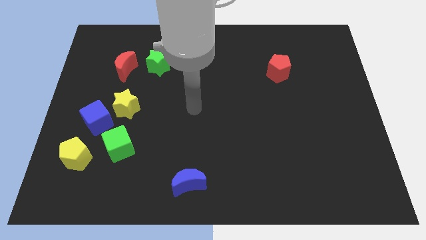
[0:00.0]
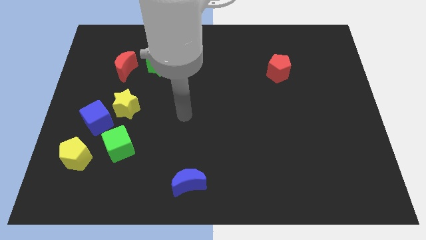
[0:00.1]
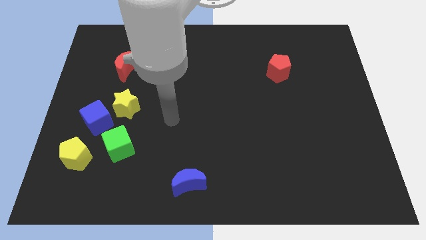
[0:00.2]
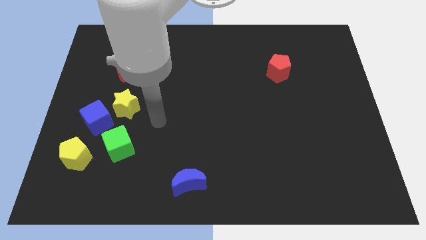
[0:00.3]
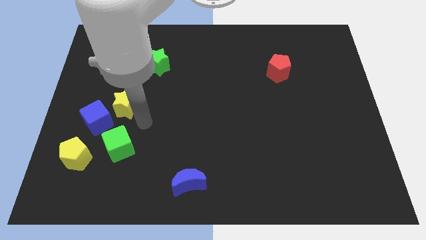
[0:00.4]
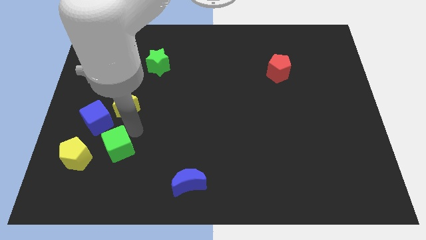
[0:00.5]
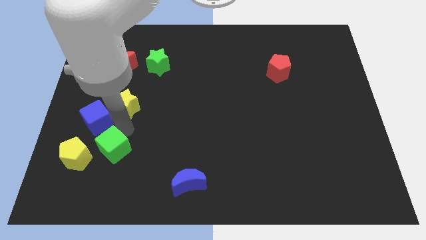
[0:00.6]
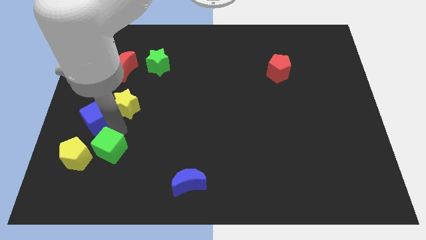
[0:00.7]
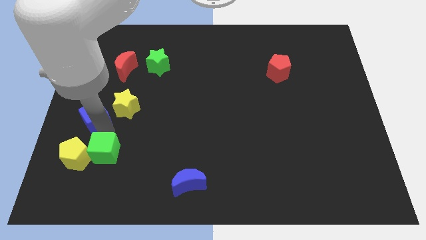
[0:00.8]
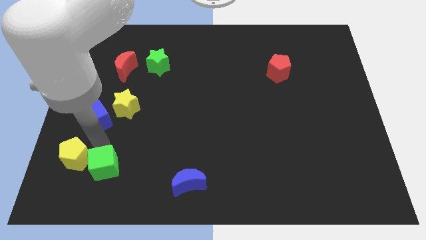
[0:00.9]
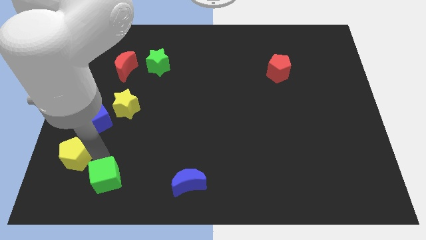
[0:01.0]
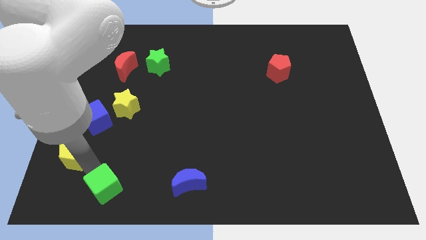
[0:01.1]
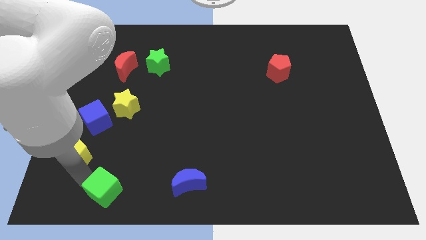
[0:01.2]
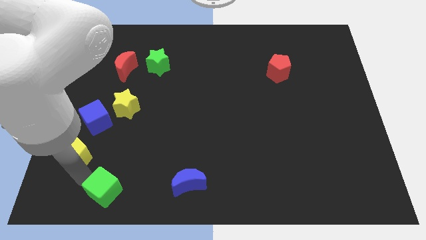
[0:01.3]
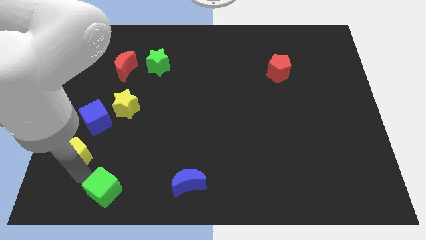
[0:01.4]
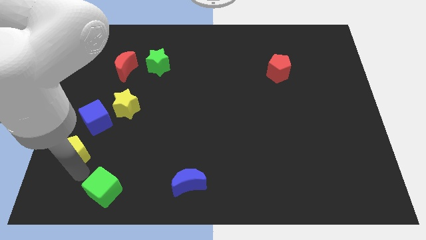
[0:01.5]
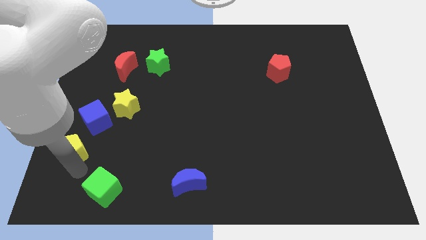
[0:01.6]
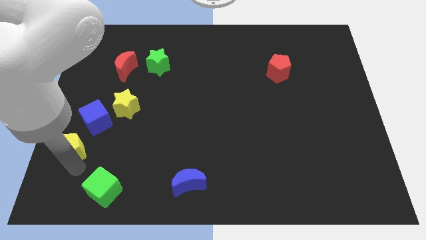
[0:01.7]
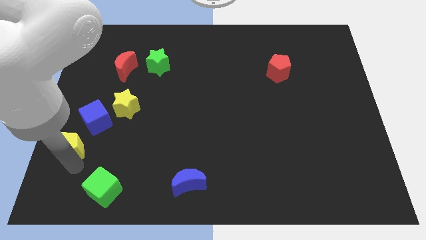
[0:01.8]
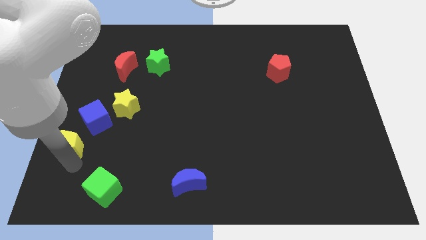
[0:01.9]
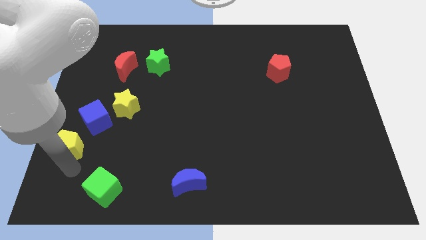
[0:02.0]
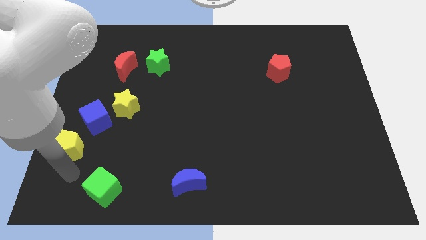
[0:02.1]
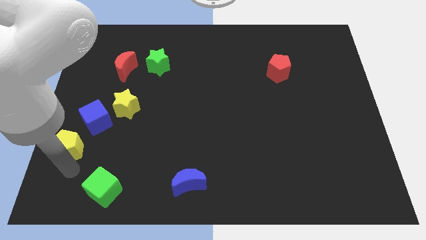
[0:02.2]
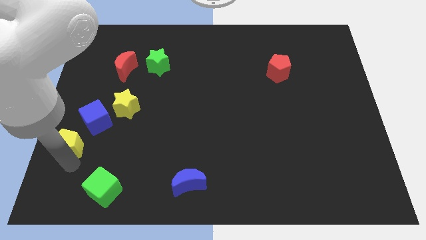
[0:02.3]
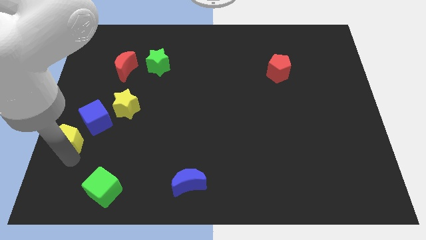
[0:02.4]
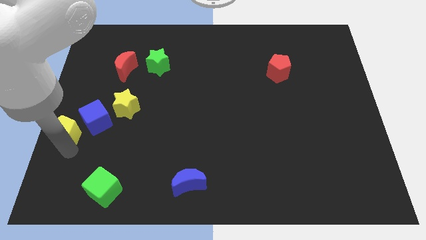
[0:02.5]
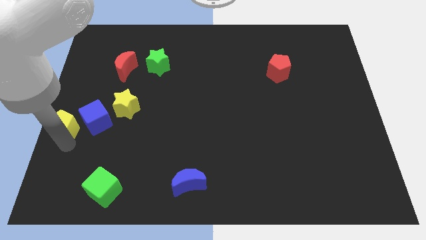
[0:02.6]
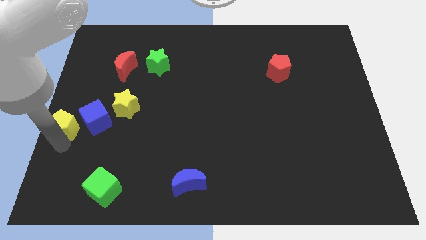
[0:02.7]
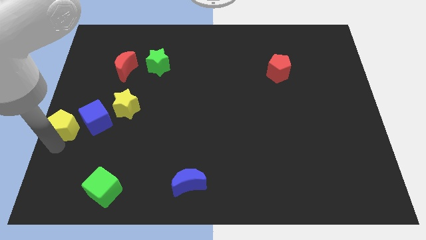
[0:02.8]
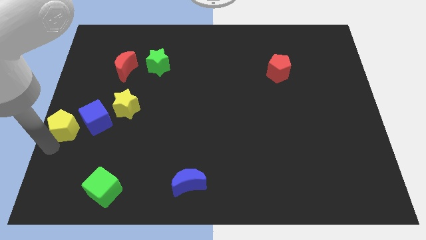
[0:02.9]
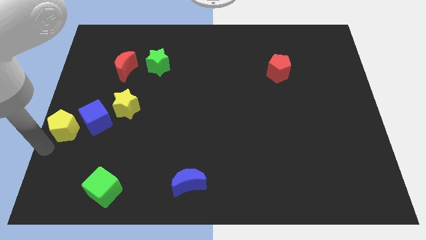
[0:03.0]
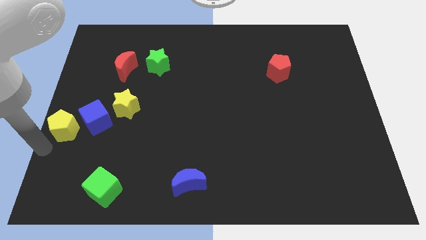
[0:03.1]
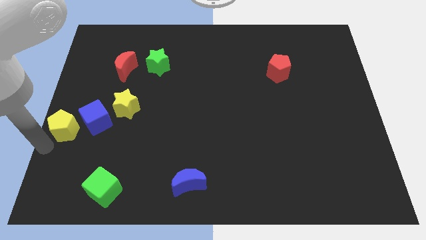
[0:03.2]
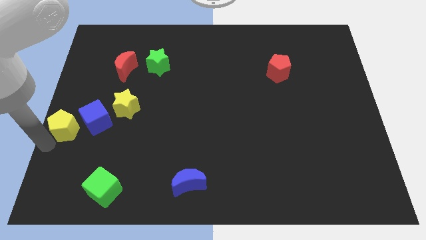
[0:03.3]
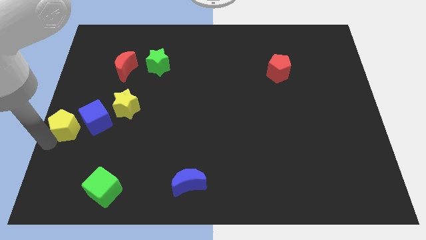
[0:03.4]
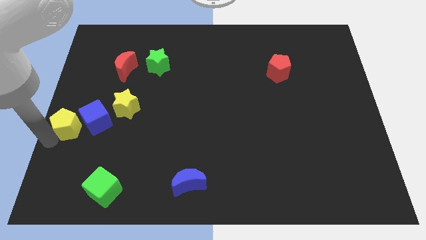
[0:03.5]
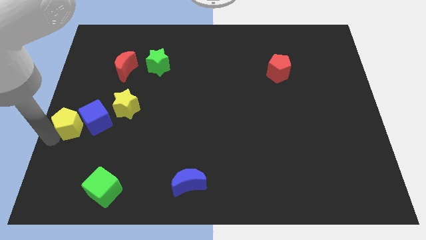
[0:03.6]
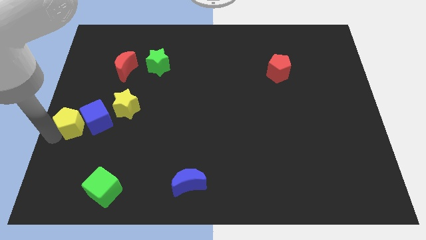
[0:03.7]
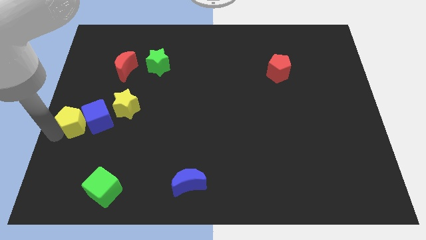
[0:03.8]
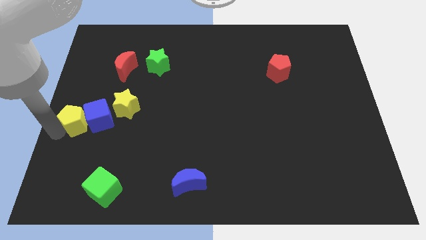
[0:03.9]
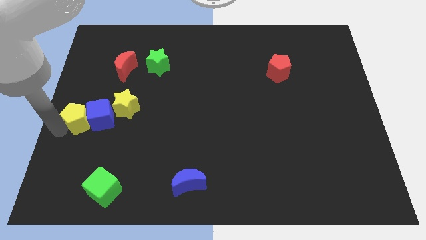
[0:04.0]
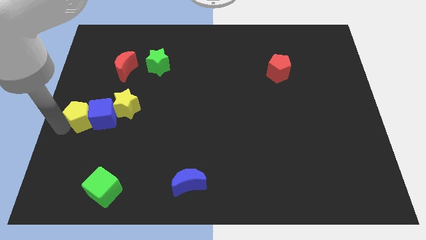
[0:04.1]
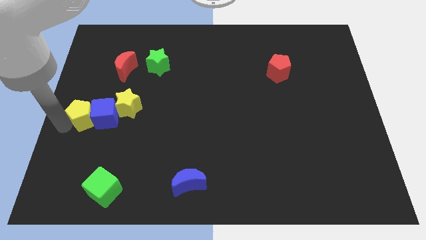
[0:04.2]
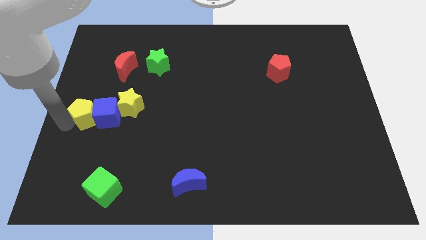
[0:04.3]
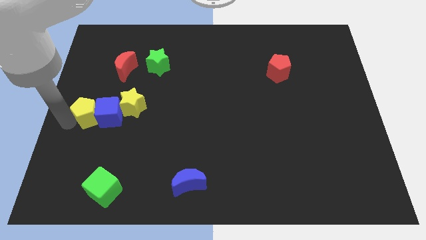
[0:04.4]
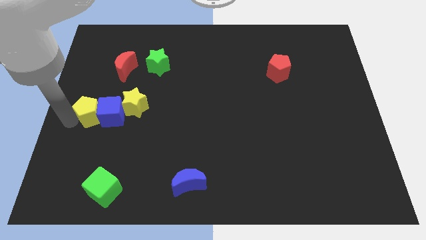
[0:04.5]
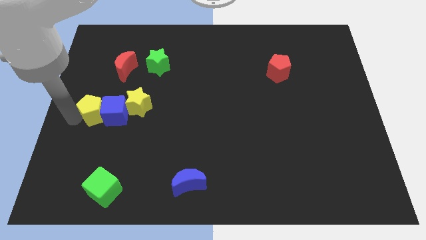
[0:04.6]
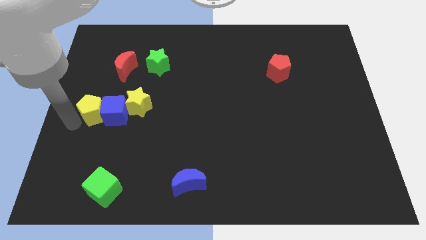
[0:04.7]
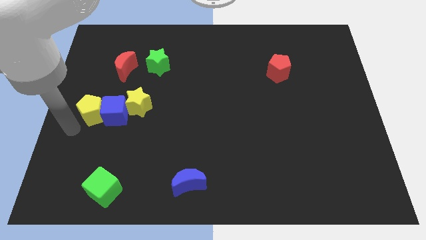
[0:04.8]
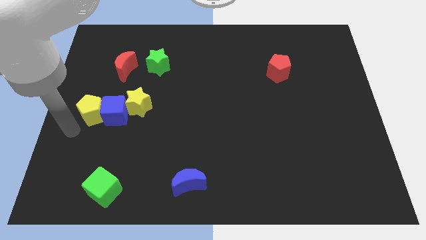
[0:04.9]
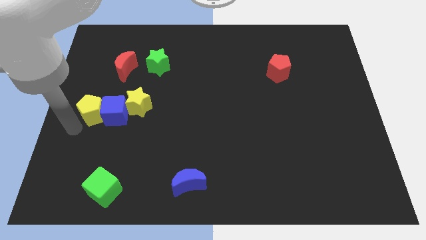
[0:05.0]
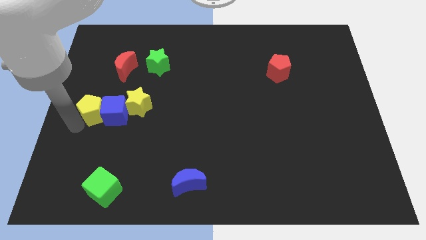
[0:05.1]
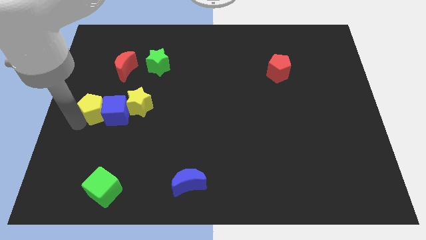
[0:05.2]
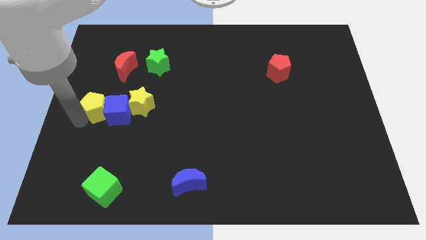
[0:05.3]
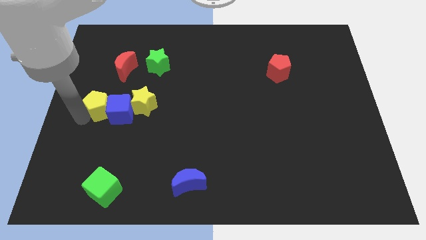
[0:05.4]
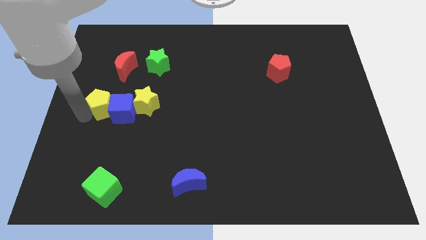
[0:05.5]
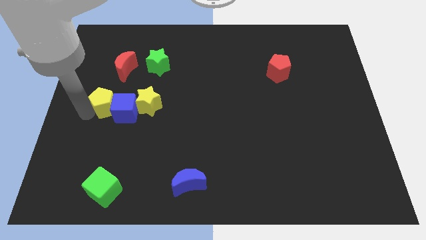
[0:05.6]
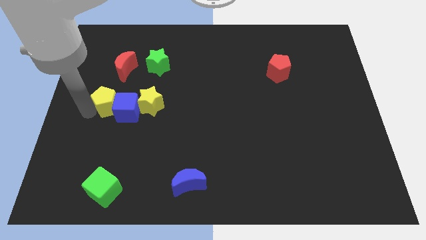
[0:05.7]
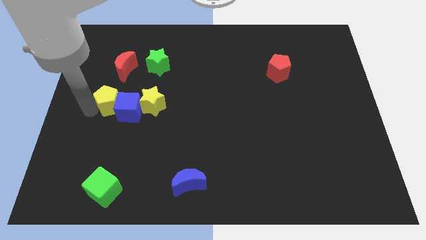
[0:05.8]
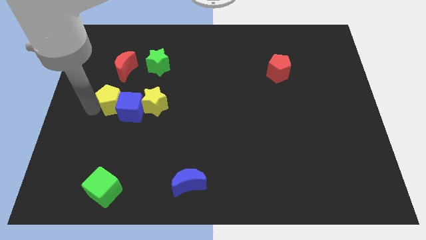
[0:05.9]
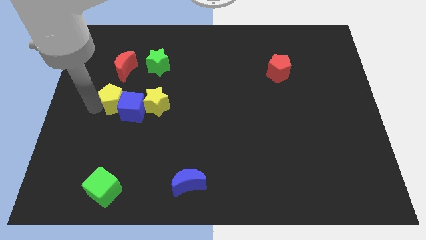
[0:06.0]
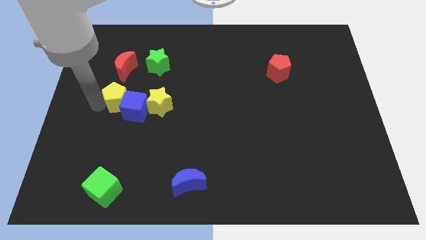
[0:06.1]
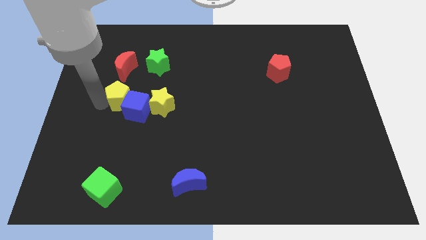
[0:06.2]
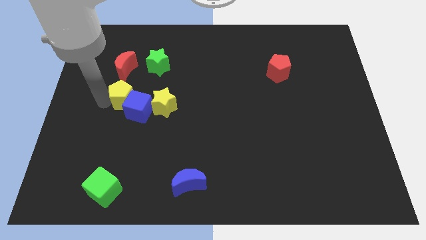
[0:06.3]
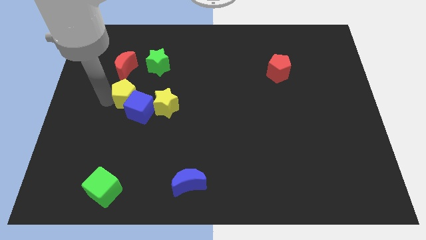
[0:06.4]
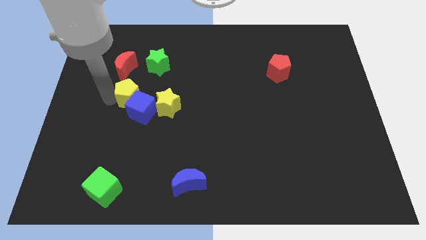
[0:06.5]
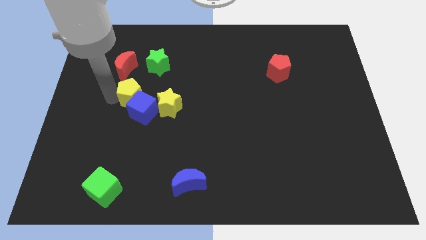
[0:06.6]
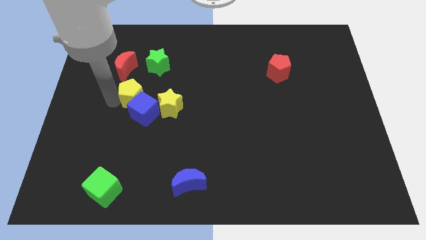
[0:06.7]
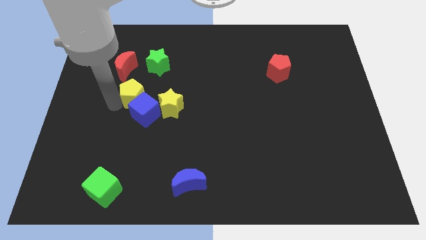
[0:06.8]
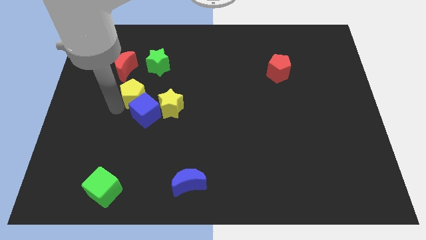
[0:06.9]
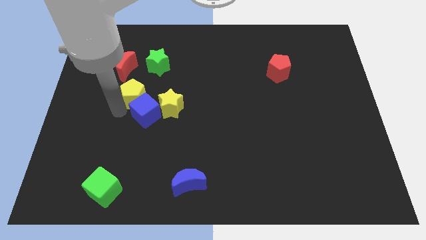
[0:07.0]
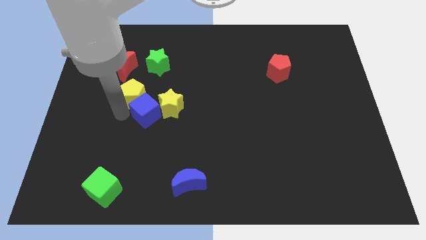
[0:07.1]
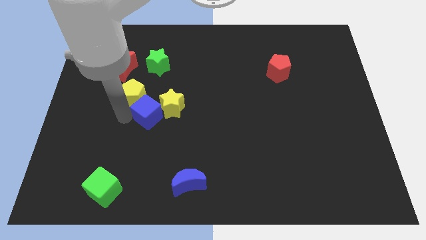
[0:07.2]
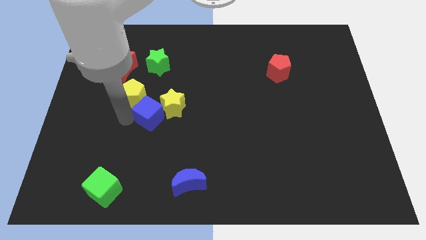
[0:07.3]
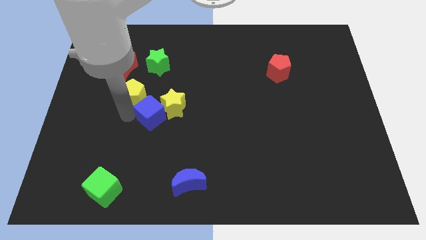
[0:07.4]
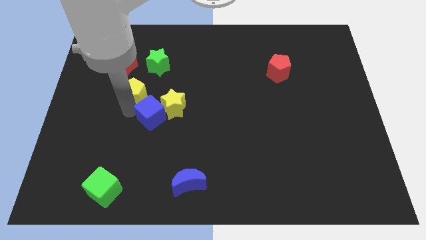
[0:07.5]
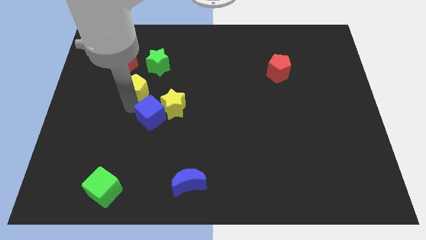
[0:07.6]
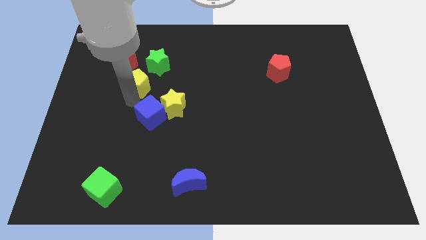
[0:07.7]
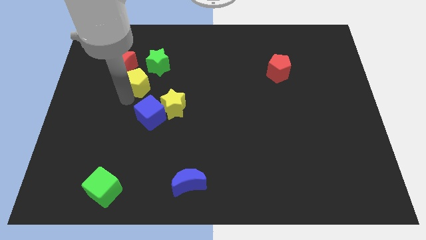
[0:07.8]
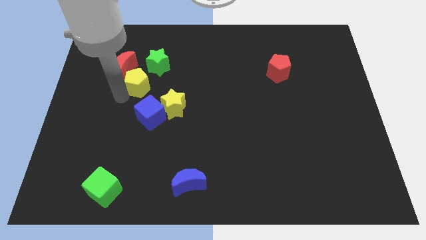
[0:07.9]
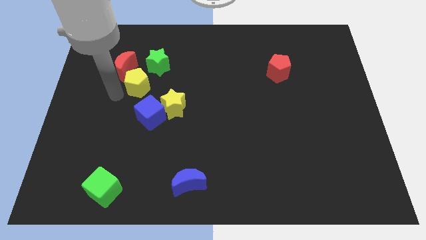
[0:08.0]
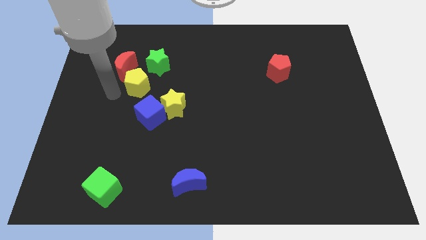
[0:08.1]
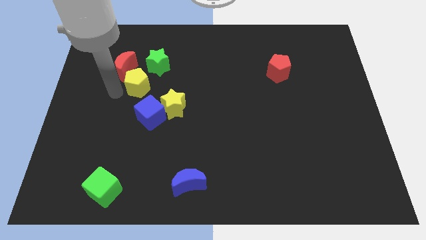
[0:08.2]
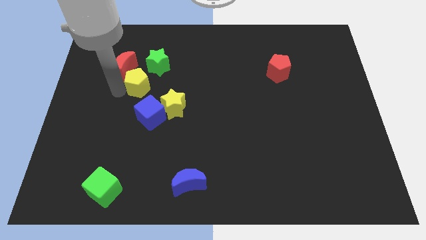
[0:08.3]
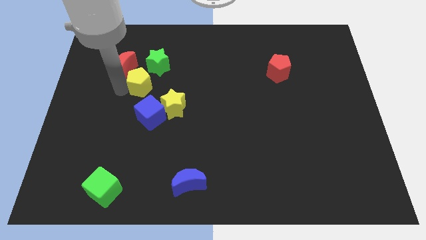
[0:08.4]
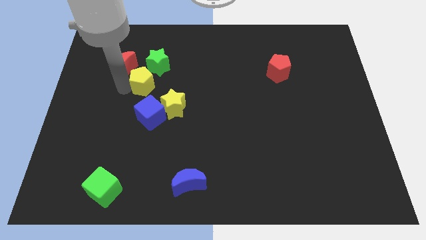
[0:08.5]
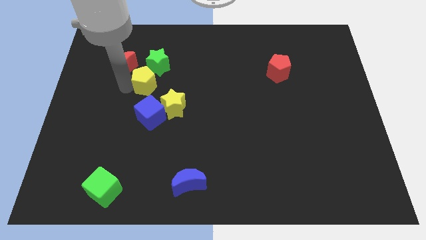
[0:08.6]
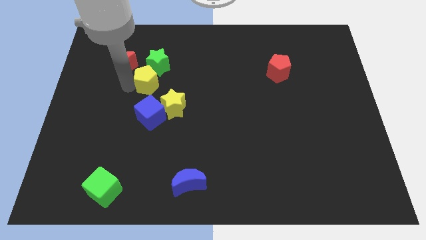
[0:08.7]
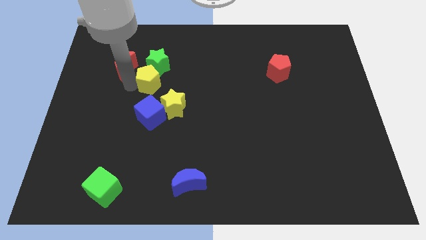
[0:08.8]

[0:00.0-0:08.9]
slide the yellow pentagon to the right of the red moon
